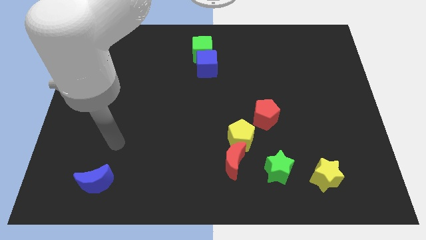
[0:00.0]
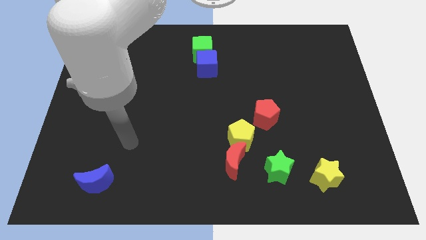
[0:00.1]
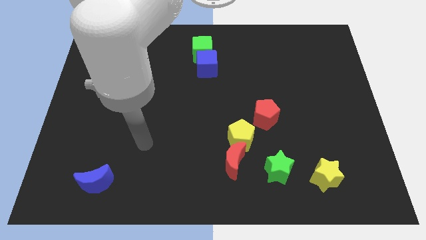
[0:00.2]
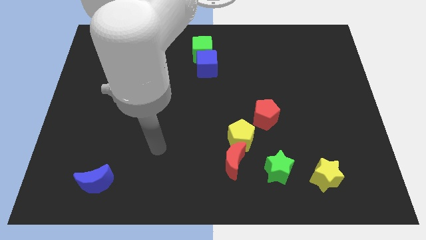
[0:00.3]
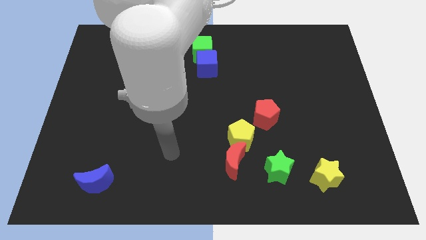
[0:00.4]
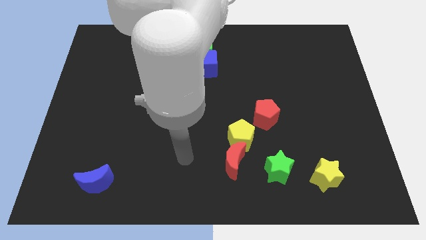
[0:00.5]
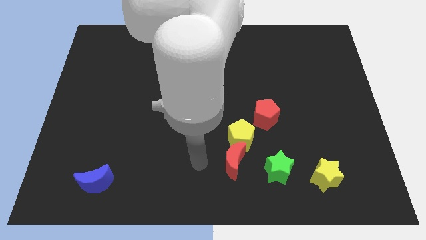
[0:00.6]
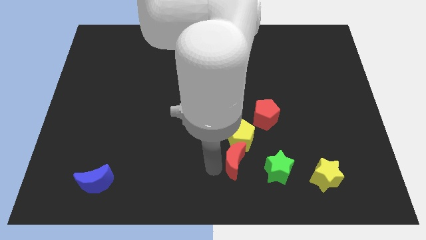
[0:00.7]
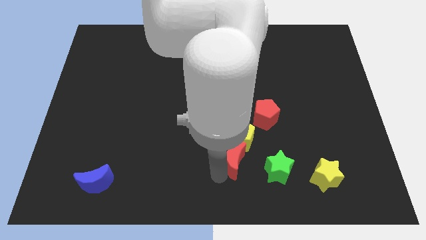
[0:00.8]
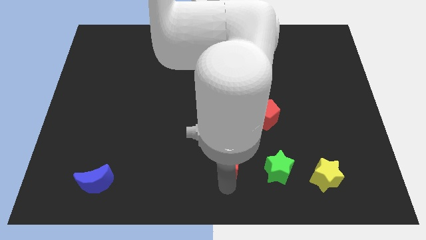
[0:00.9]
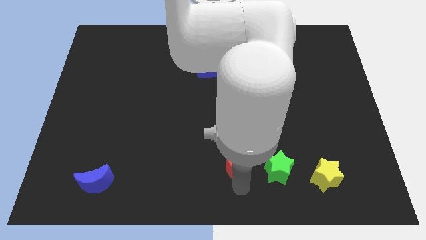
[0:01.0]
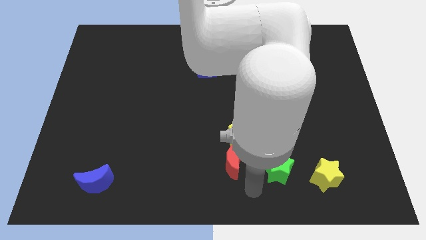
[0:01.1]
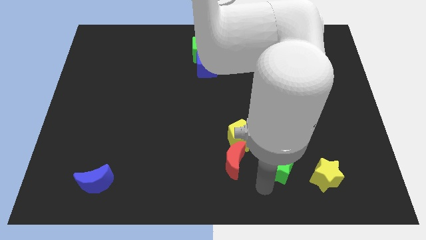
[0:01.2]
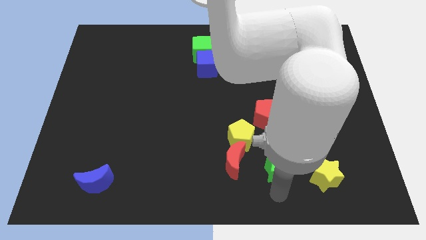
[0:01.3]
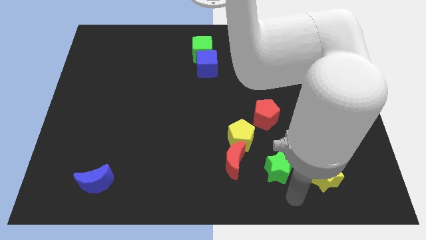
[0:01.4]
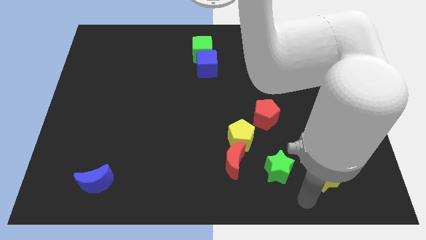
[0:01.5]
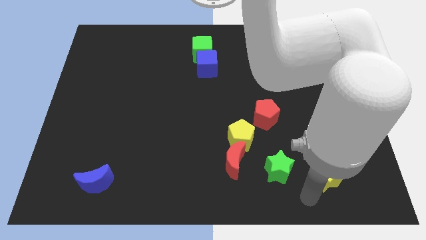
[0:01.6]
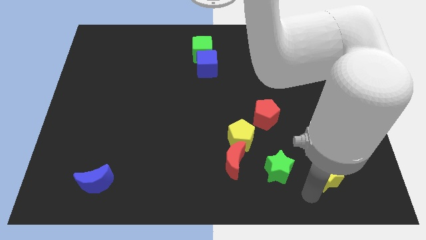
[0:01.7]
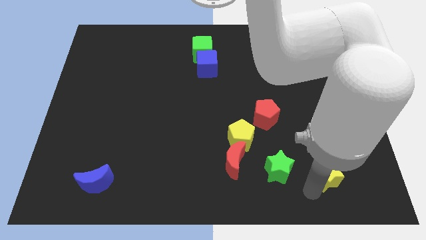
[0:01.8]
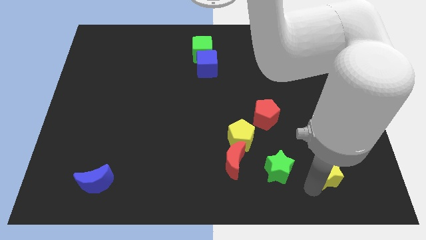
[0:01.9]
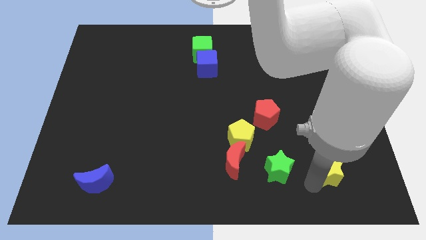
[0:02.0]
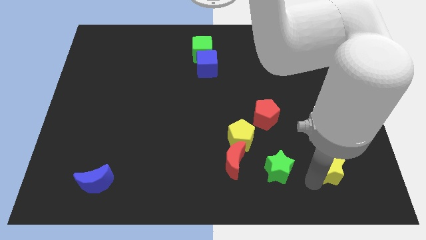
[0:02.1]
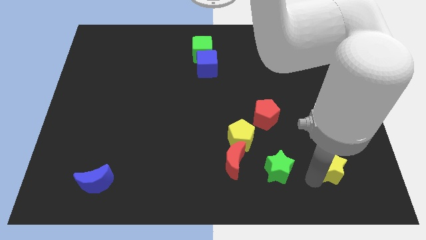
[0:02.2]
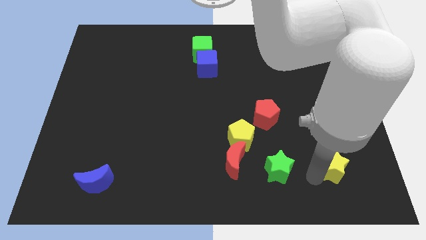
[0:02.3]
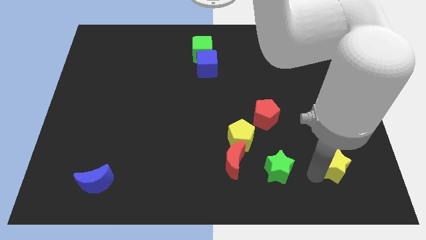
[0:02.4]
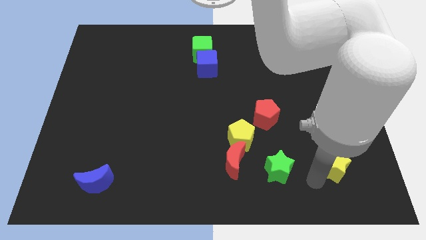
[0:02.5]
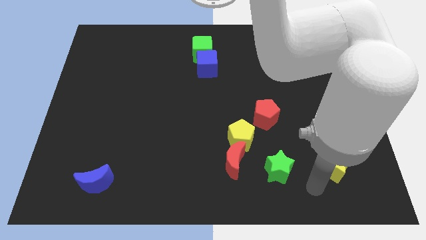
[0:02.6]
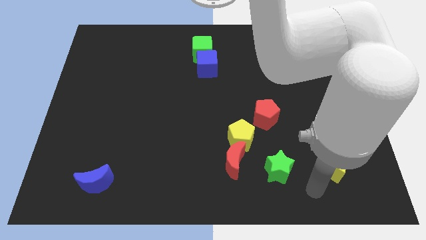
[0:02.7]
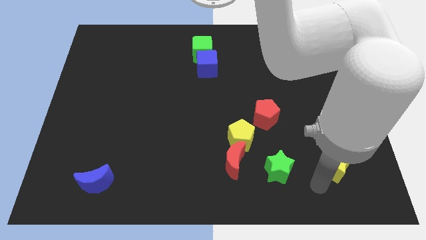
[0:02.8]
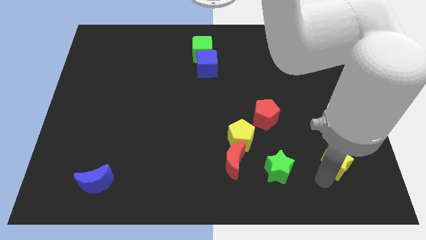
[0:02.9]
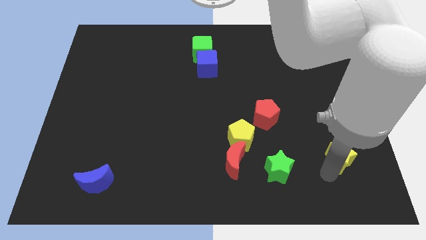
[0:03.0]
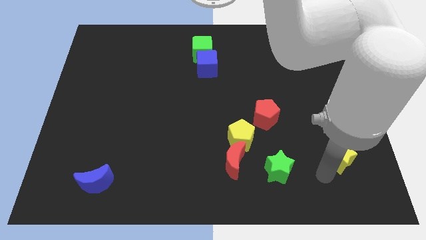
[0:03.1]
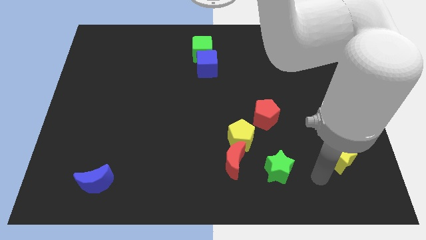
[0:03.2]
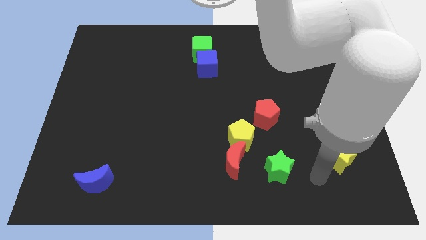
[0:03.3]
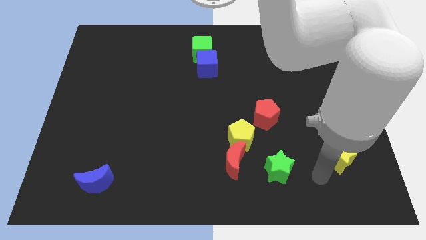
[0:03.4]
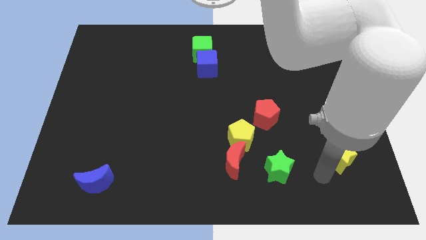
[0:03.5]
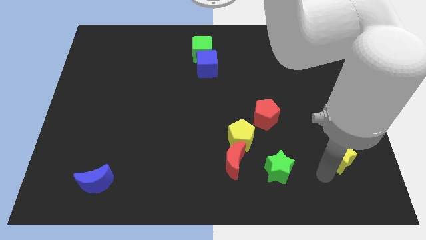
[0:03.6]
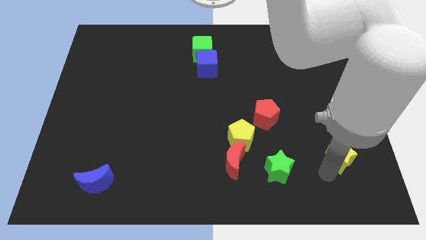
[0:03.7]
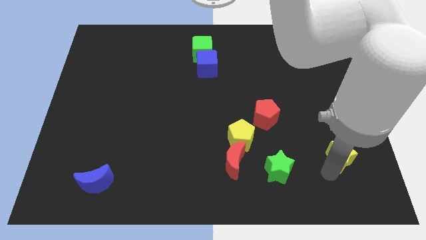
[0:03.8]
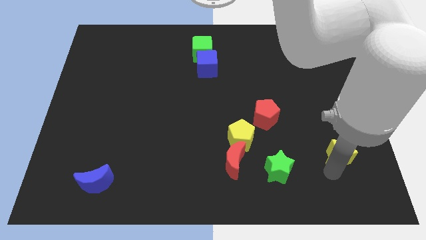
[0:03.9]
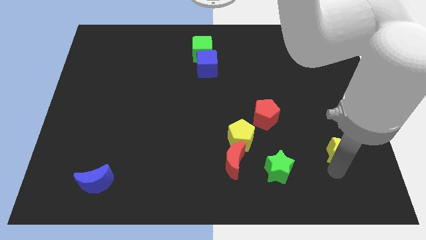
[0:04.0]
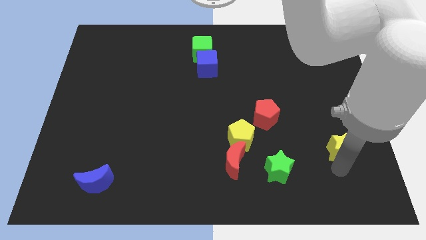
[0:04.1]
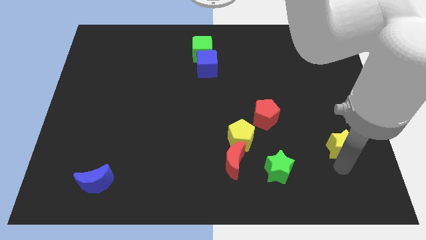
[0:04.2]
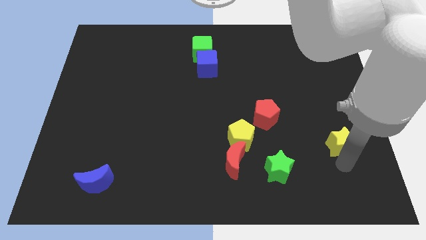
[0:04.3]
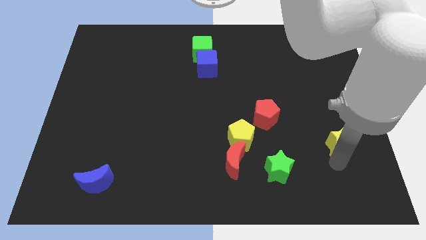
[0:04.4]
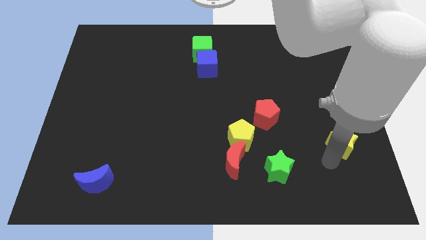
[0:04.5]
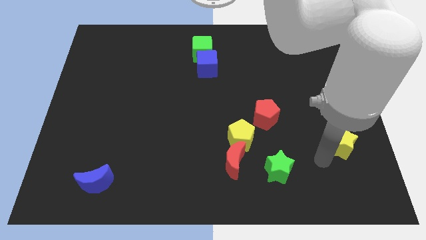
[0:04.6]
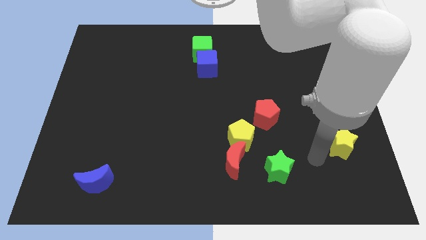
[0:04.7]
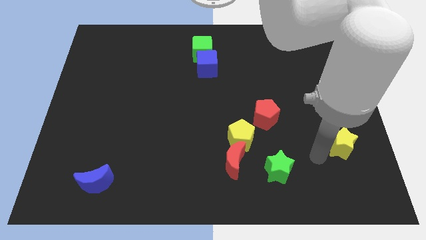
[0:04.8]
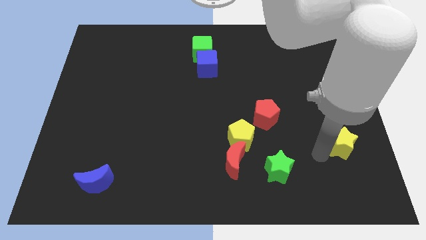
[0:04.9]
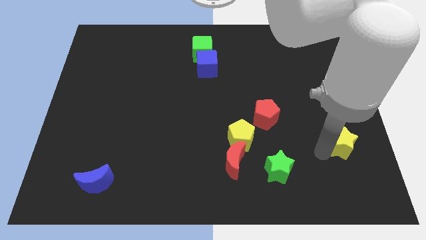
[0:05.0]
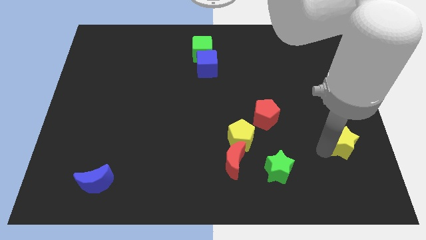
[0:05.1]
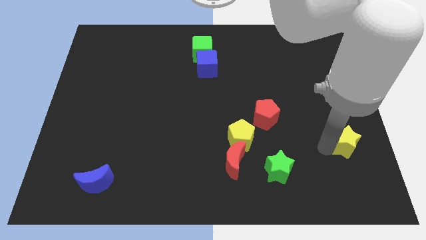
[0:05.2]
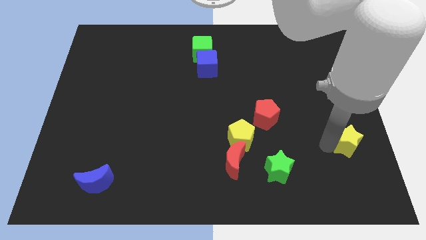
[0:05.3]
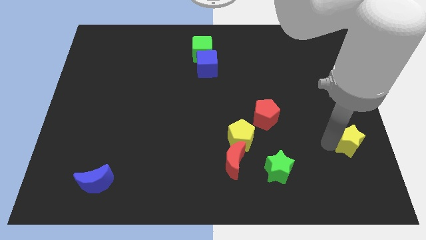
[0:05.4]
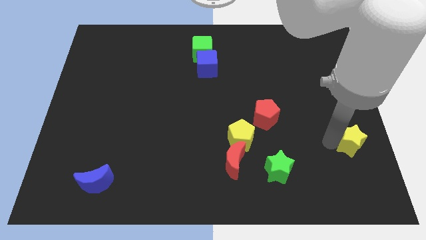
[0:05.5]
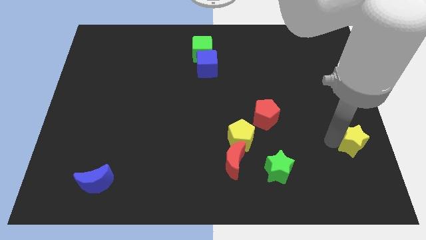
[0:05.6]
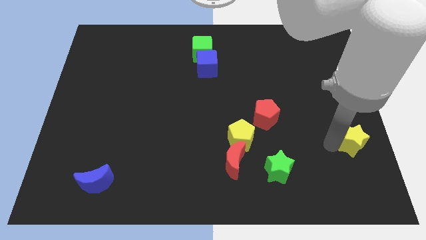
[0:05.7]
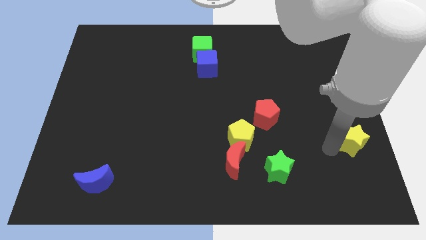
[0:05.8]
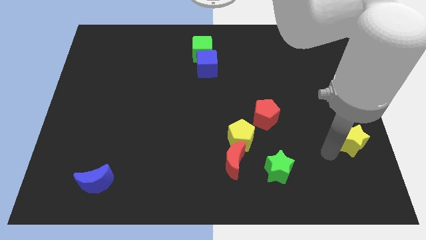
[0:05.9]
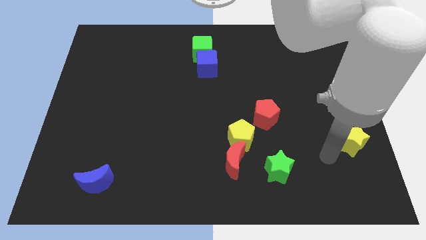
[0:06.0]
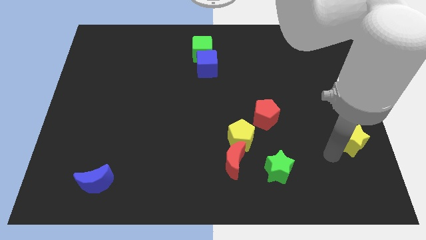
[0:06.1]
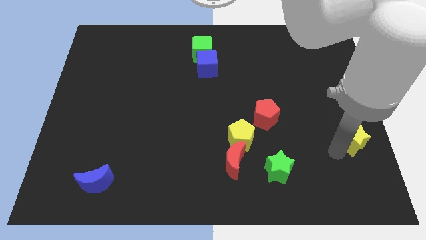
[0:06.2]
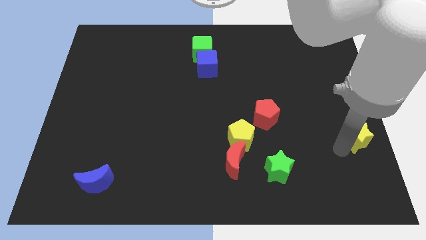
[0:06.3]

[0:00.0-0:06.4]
push the yellow star to the right side of the board
